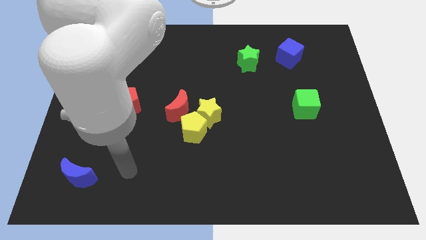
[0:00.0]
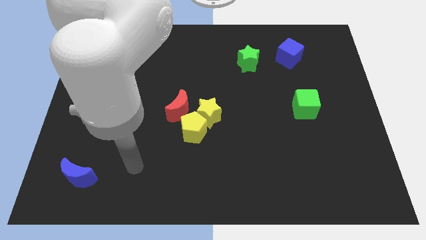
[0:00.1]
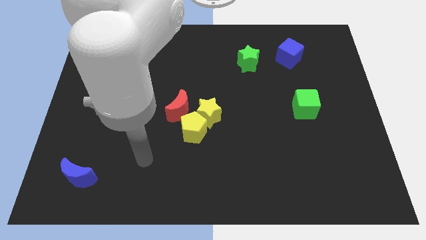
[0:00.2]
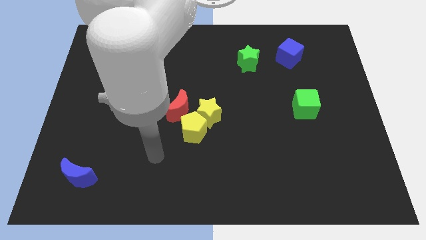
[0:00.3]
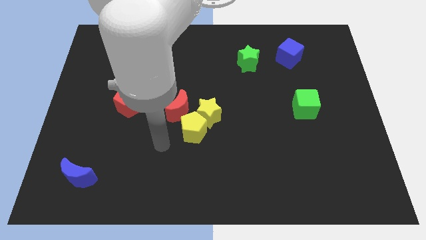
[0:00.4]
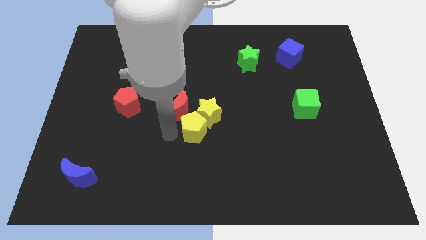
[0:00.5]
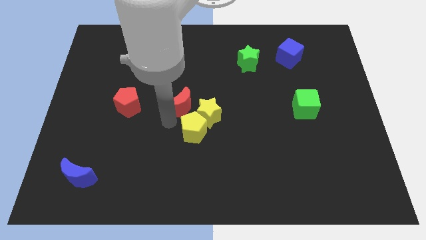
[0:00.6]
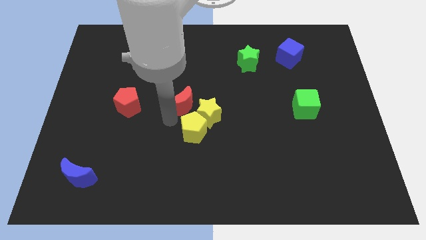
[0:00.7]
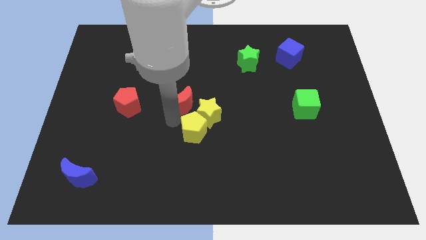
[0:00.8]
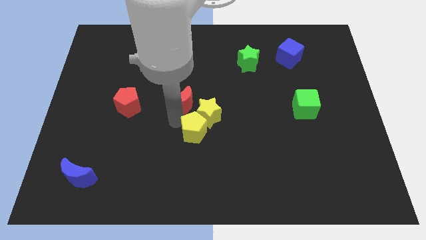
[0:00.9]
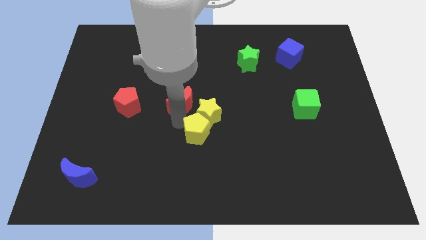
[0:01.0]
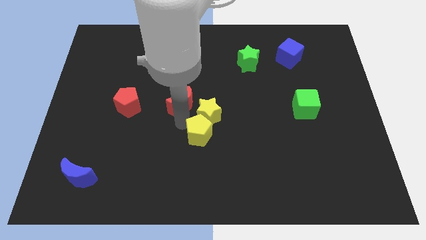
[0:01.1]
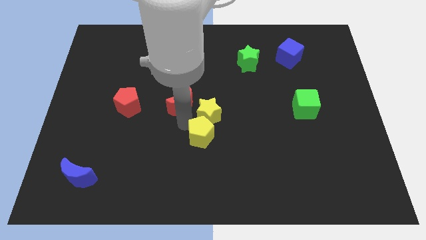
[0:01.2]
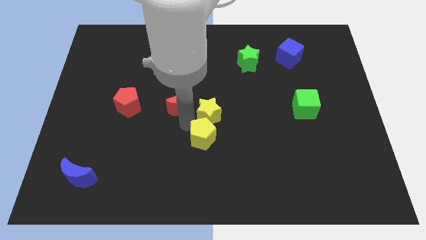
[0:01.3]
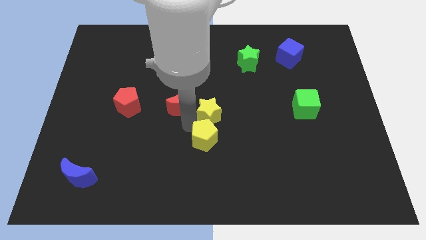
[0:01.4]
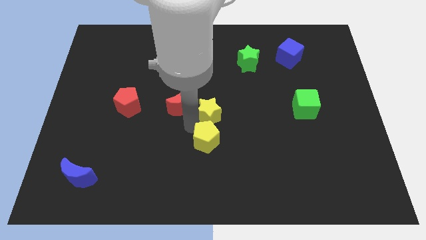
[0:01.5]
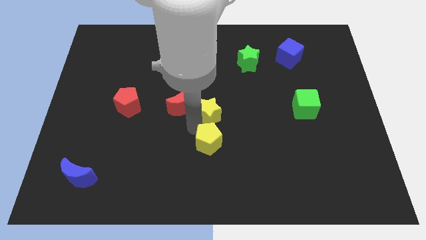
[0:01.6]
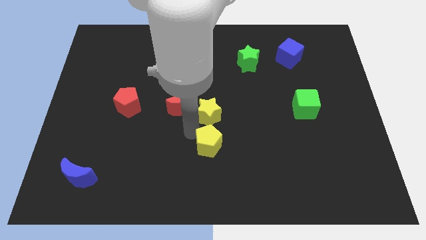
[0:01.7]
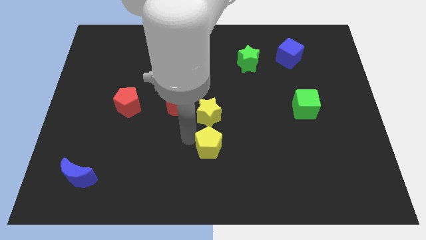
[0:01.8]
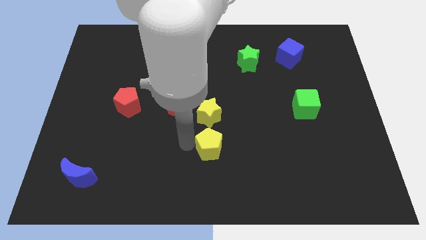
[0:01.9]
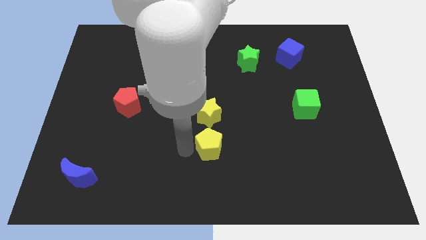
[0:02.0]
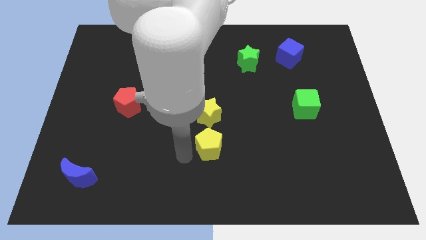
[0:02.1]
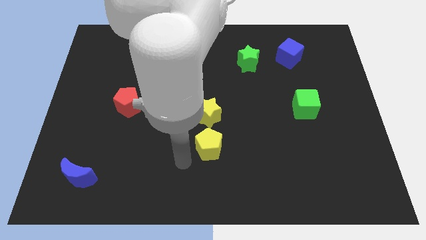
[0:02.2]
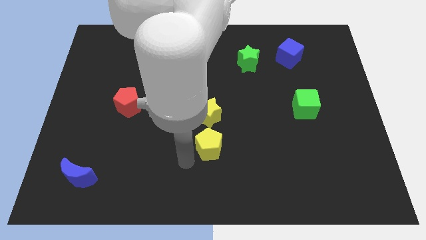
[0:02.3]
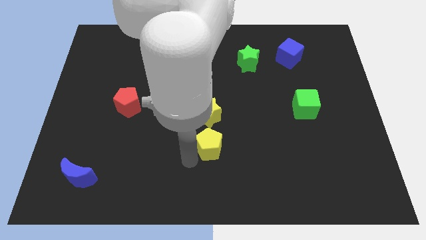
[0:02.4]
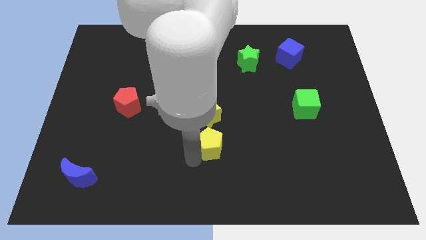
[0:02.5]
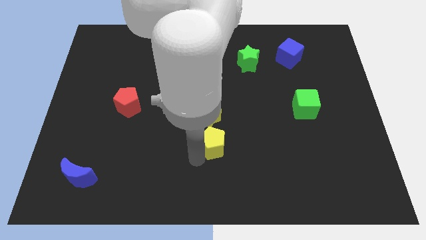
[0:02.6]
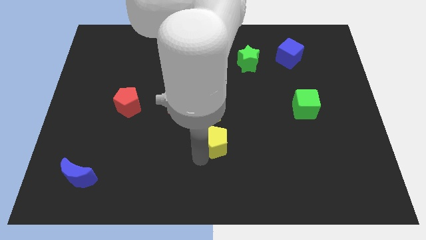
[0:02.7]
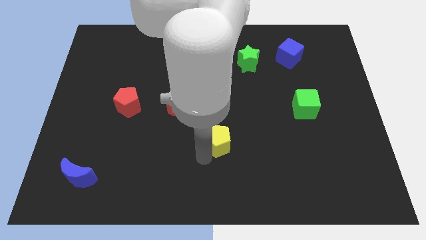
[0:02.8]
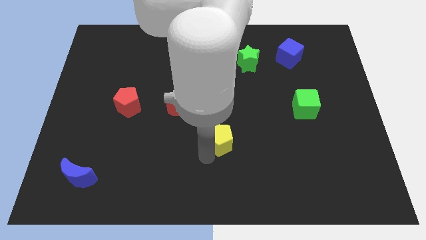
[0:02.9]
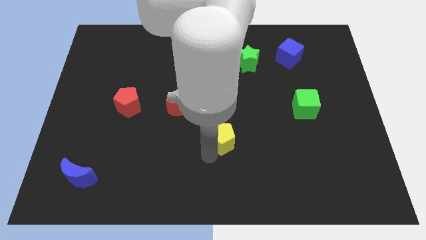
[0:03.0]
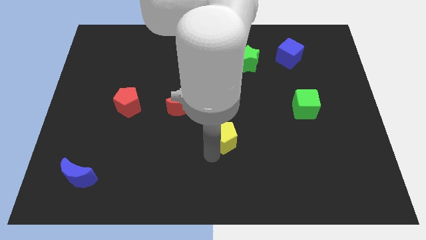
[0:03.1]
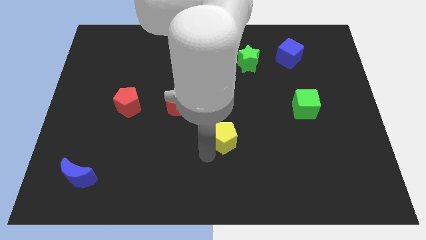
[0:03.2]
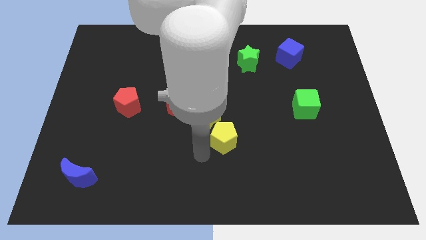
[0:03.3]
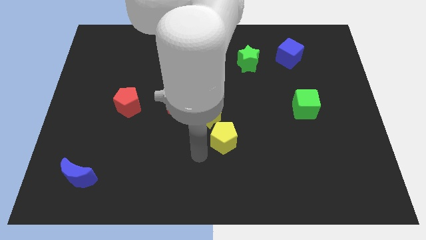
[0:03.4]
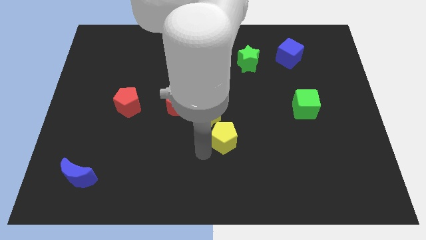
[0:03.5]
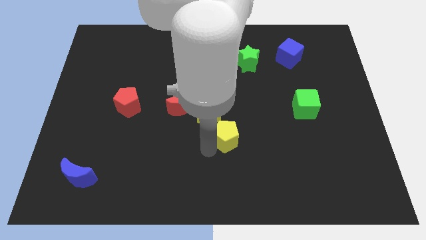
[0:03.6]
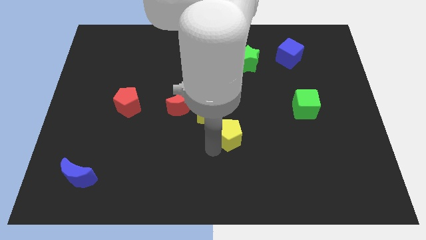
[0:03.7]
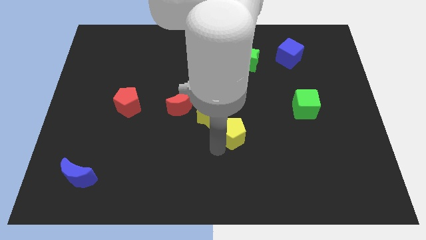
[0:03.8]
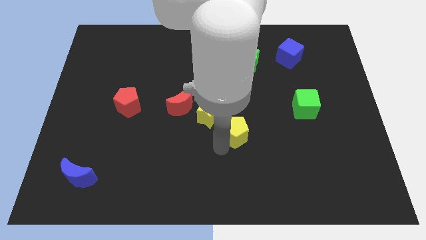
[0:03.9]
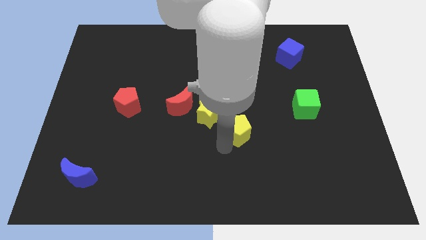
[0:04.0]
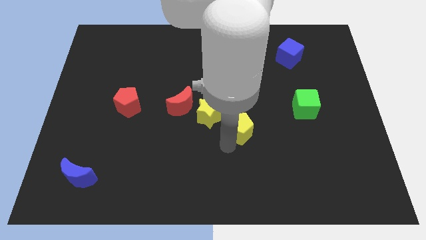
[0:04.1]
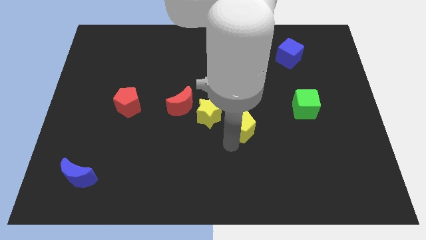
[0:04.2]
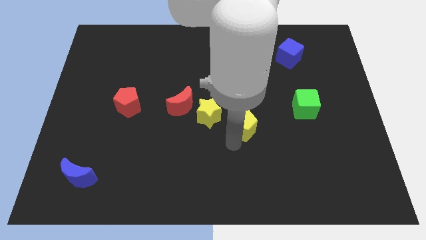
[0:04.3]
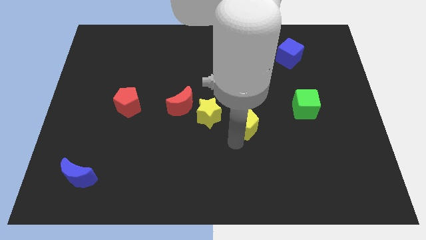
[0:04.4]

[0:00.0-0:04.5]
slide the yellow pentagon up and then right a bit

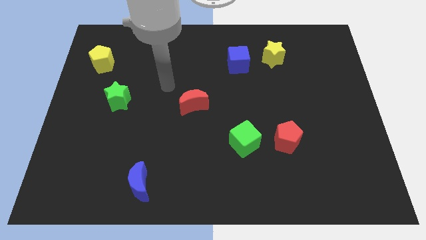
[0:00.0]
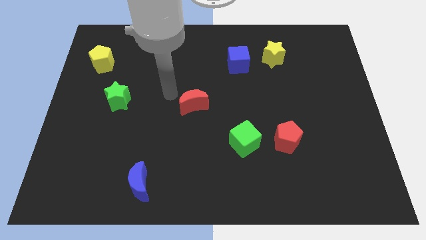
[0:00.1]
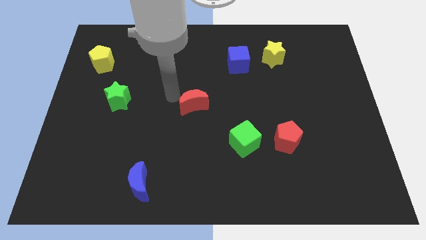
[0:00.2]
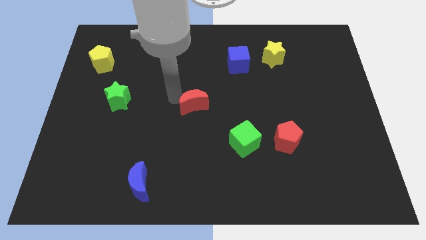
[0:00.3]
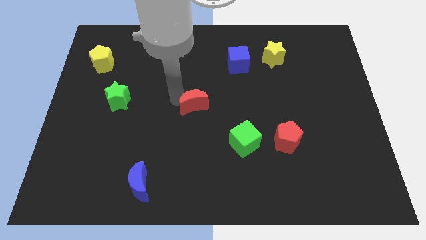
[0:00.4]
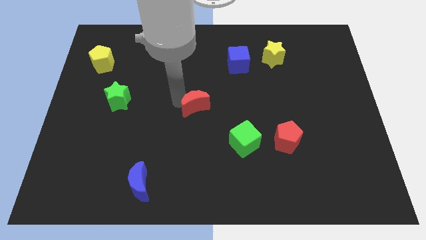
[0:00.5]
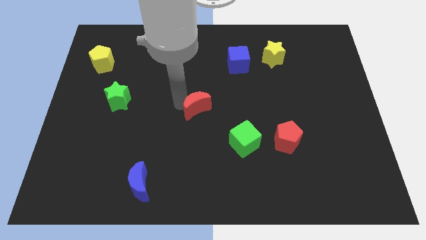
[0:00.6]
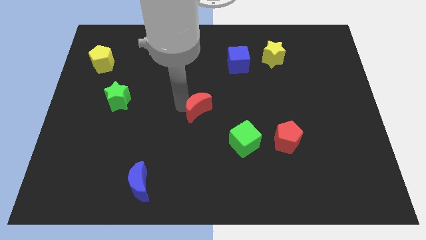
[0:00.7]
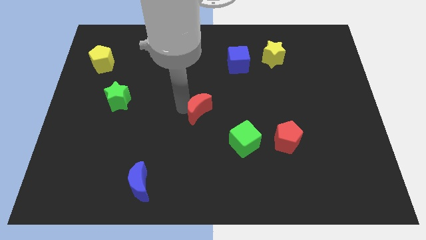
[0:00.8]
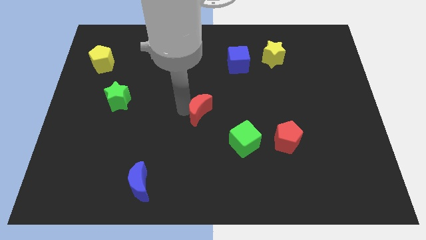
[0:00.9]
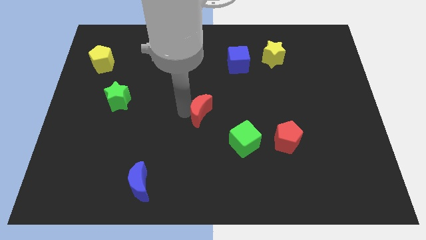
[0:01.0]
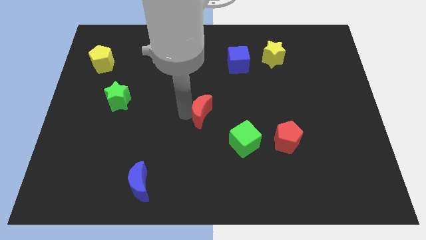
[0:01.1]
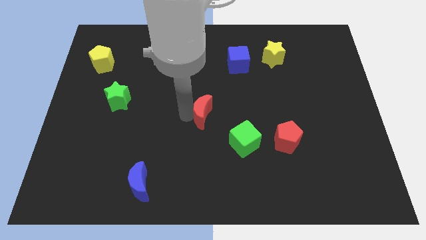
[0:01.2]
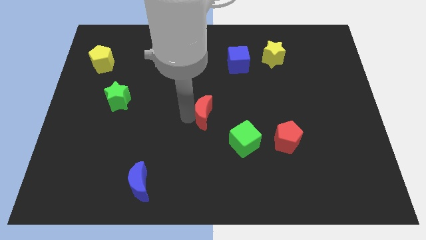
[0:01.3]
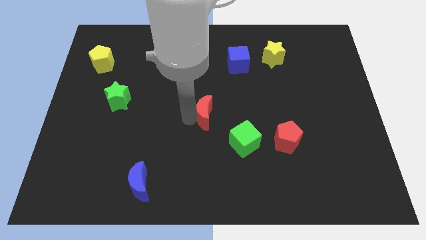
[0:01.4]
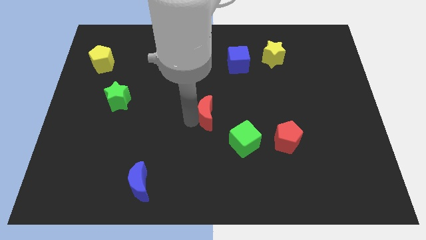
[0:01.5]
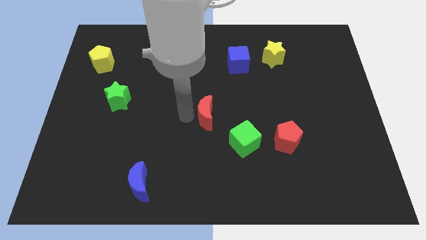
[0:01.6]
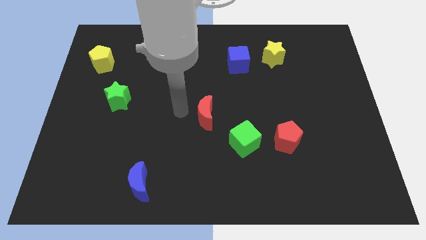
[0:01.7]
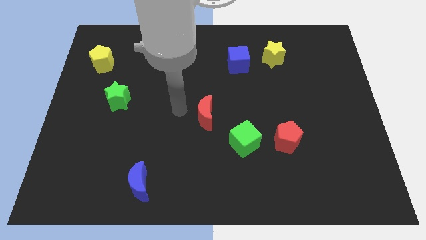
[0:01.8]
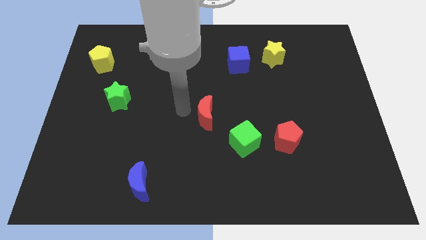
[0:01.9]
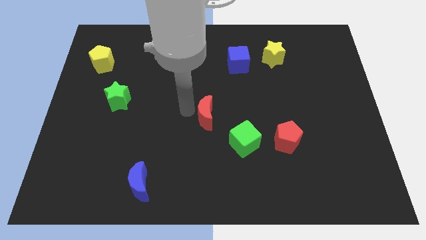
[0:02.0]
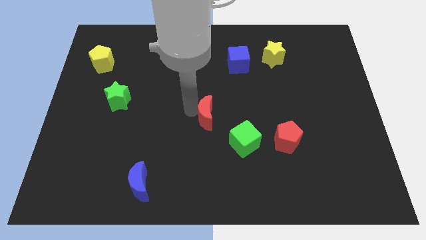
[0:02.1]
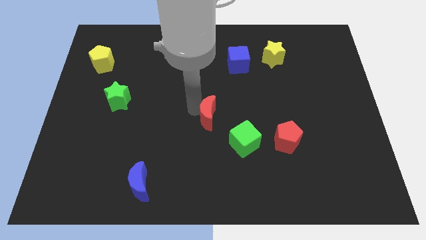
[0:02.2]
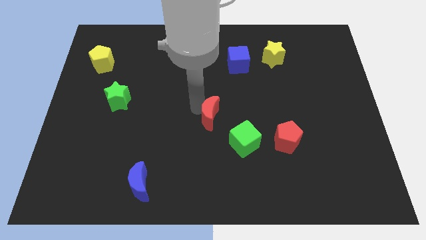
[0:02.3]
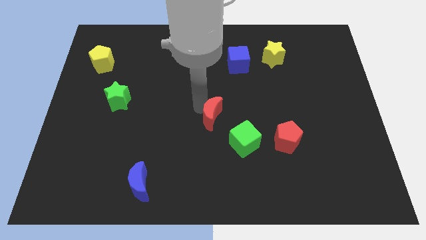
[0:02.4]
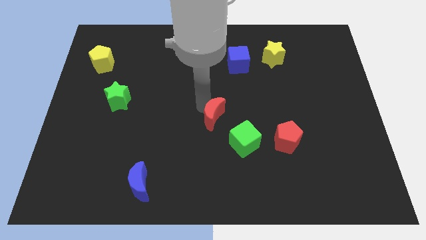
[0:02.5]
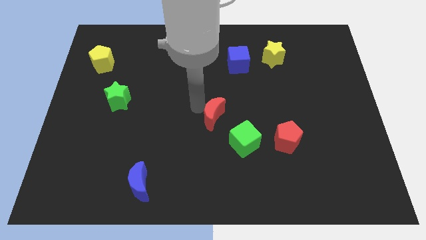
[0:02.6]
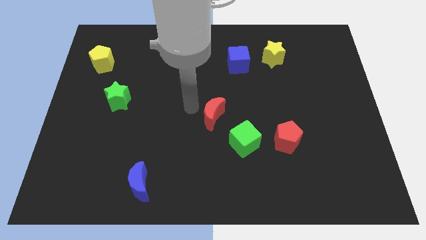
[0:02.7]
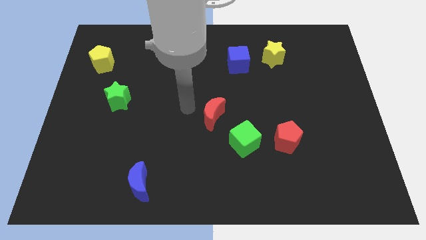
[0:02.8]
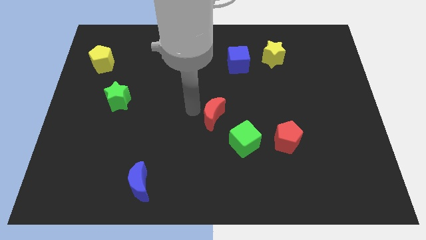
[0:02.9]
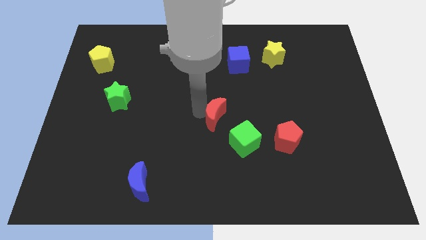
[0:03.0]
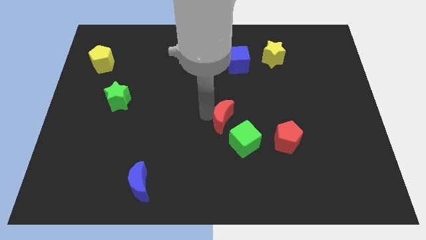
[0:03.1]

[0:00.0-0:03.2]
slightly slide the red moon downwards and right diagonally
